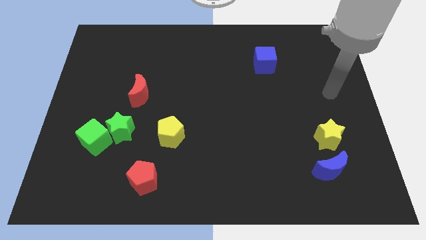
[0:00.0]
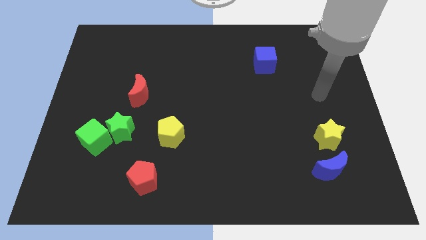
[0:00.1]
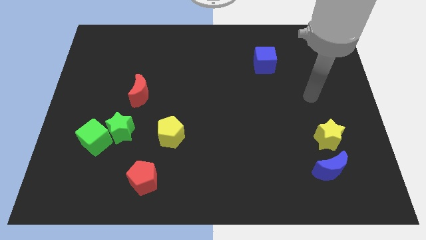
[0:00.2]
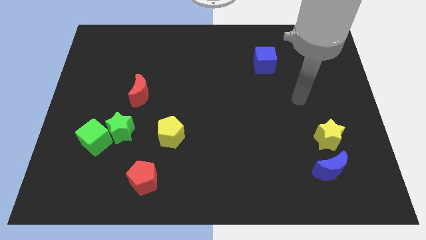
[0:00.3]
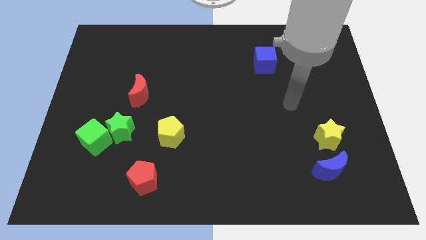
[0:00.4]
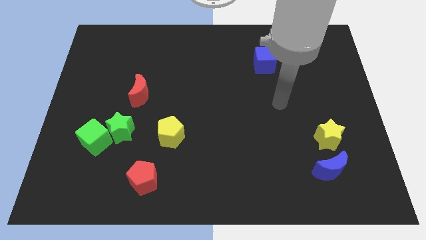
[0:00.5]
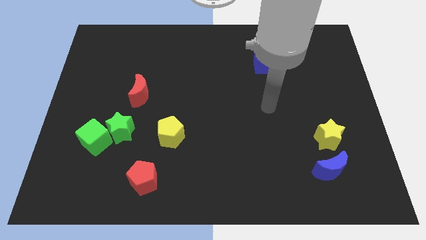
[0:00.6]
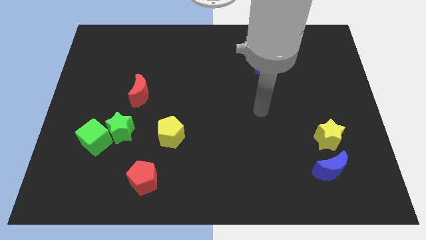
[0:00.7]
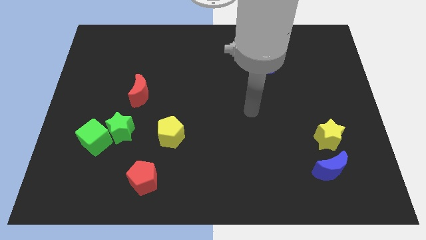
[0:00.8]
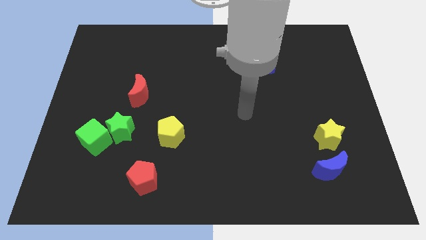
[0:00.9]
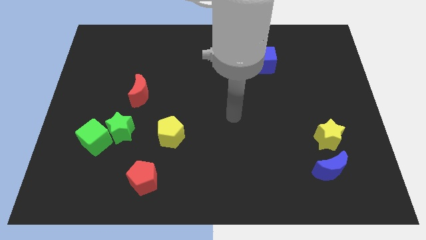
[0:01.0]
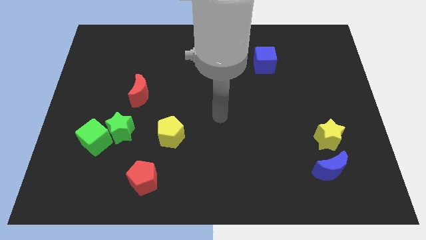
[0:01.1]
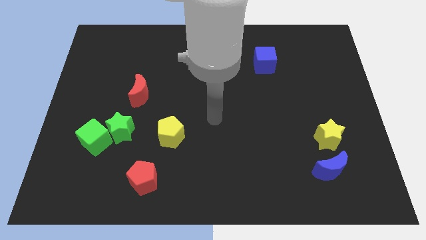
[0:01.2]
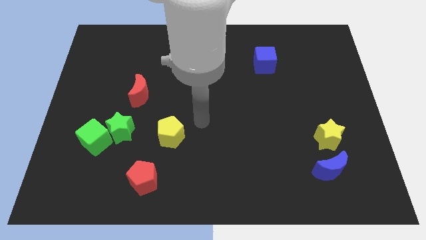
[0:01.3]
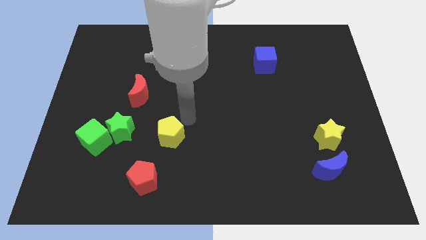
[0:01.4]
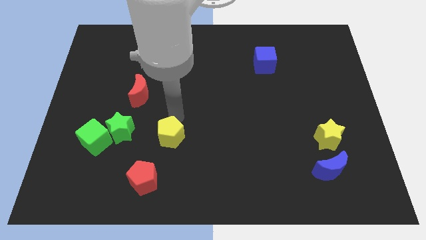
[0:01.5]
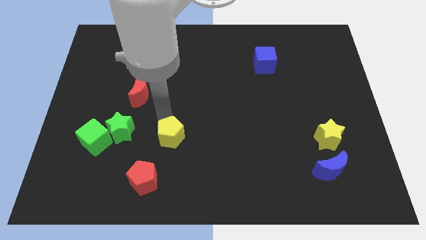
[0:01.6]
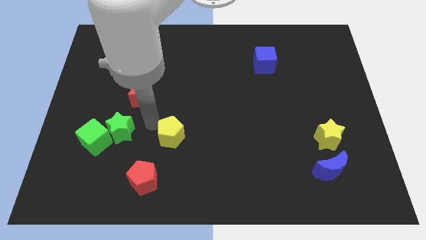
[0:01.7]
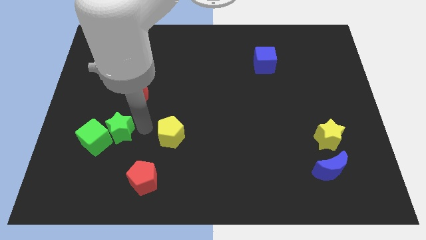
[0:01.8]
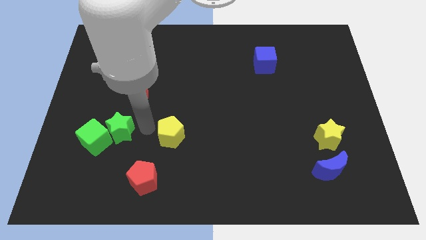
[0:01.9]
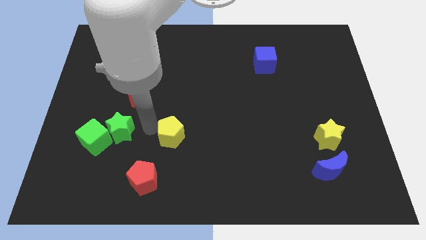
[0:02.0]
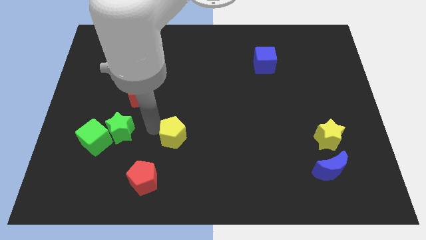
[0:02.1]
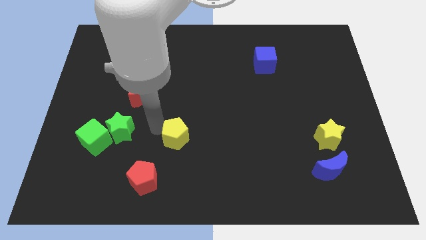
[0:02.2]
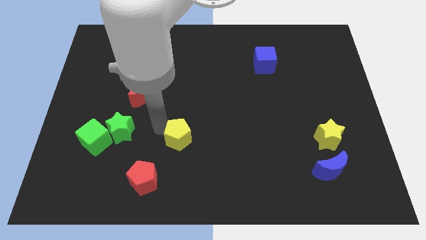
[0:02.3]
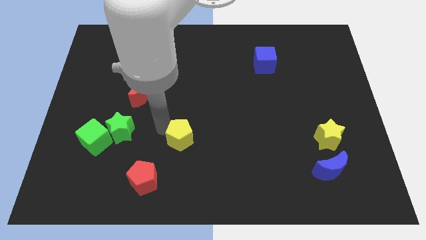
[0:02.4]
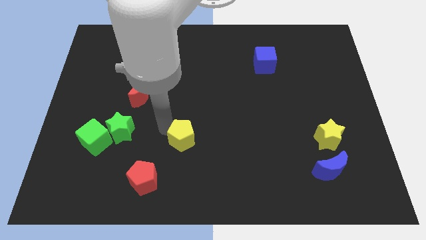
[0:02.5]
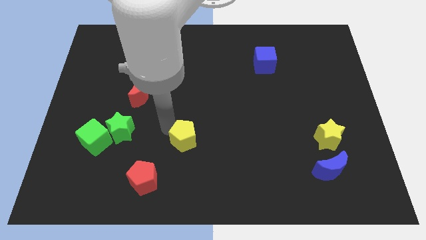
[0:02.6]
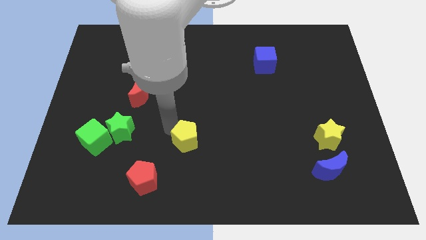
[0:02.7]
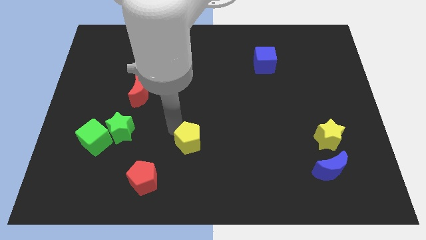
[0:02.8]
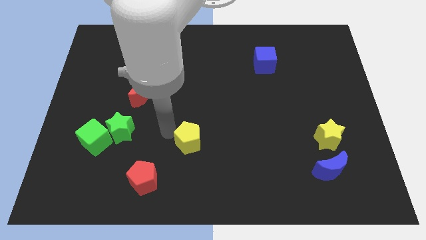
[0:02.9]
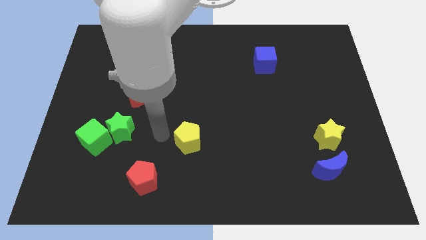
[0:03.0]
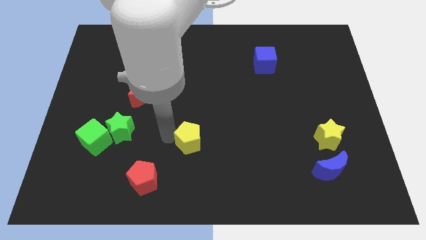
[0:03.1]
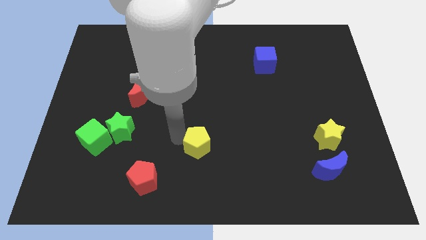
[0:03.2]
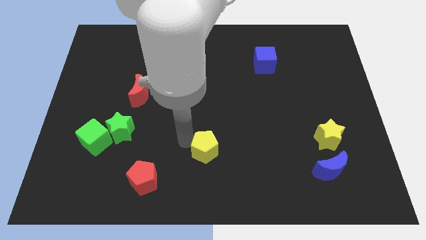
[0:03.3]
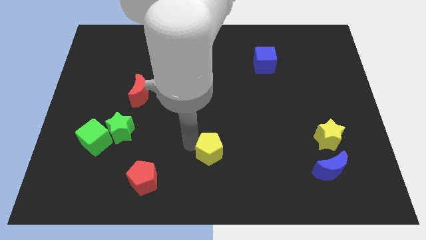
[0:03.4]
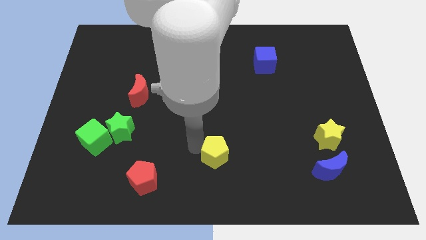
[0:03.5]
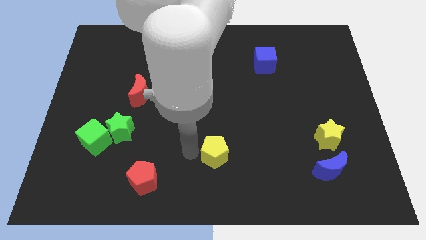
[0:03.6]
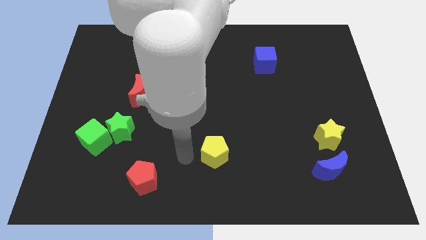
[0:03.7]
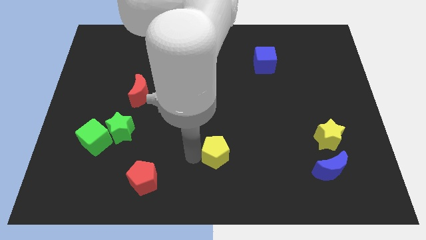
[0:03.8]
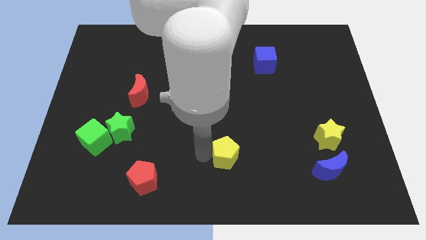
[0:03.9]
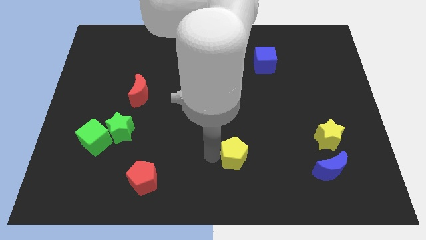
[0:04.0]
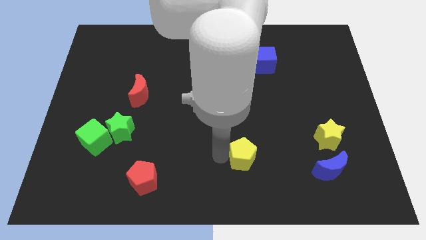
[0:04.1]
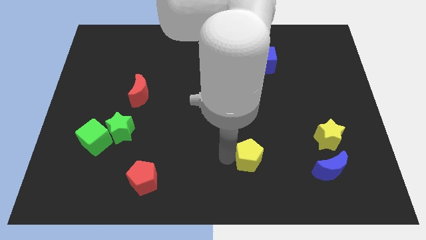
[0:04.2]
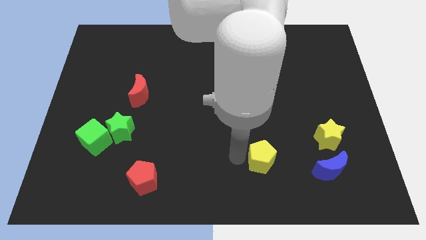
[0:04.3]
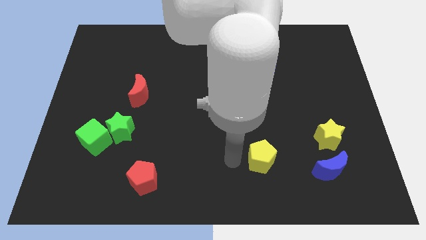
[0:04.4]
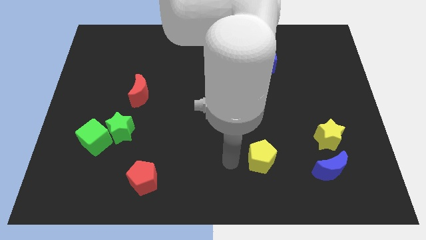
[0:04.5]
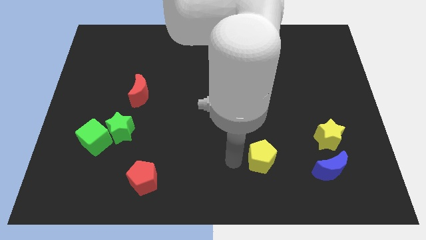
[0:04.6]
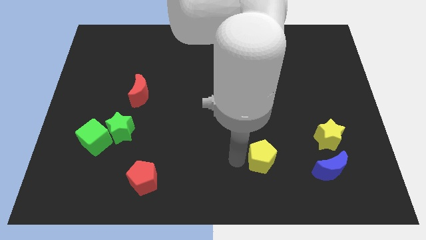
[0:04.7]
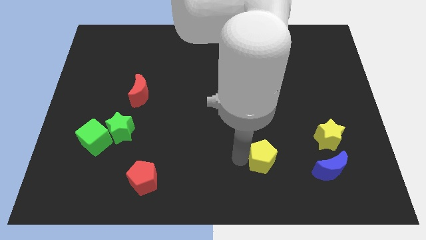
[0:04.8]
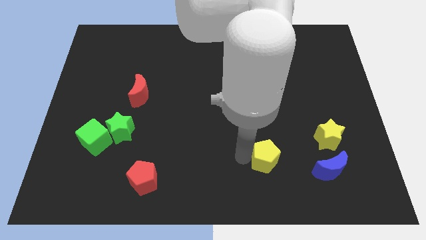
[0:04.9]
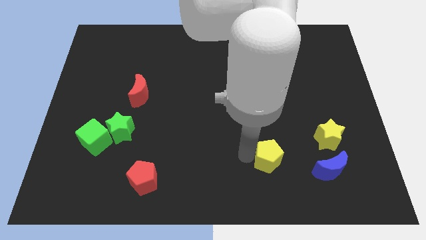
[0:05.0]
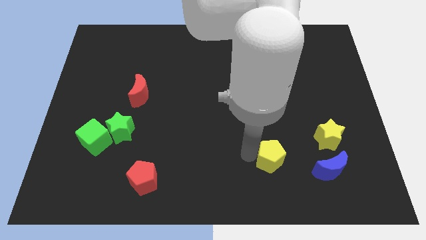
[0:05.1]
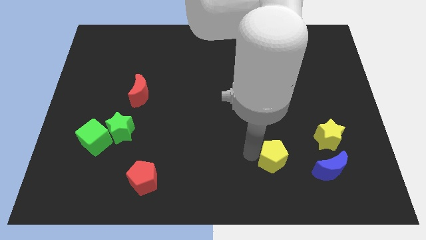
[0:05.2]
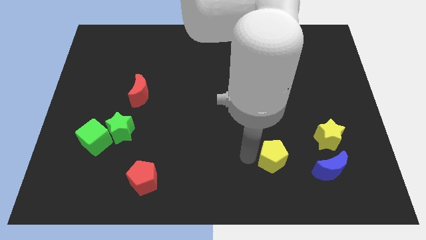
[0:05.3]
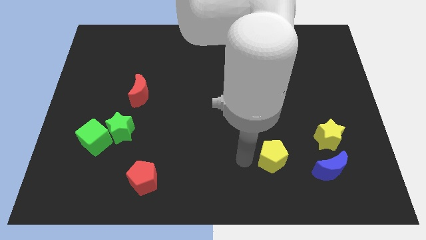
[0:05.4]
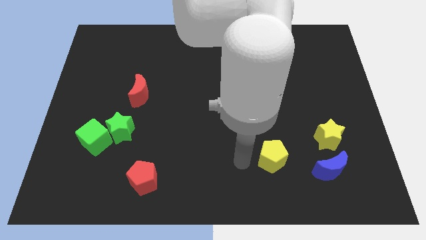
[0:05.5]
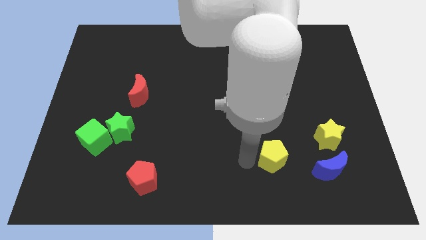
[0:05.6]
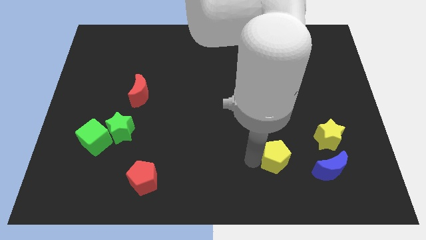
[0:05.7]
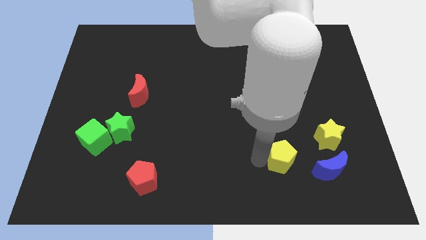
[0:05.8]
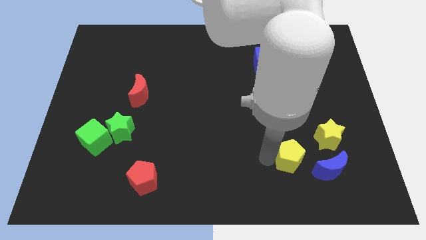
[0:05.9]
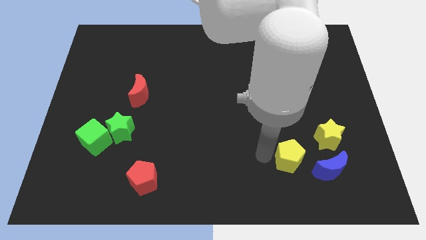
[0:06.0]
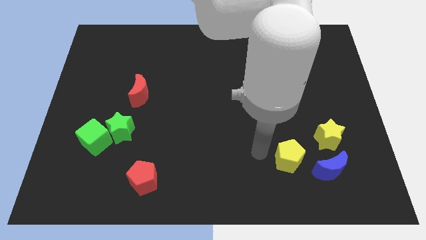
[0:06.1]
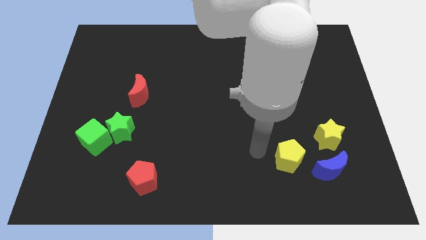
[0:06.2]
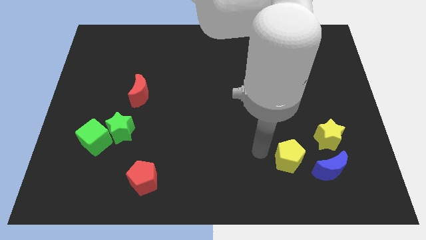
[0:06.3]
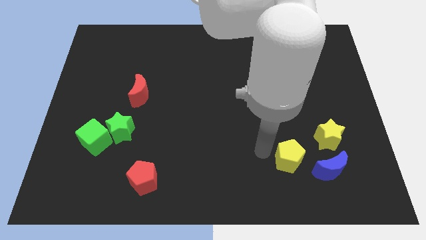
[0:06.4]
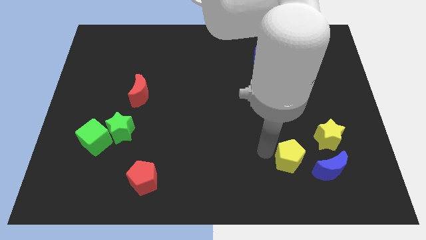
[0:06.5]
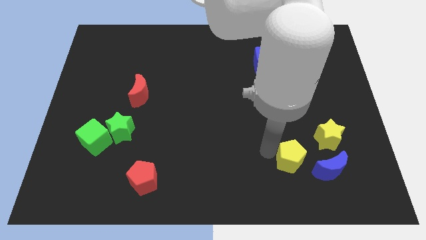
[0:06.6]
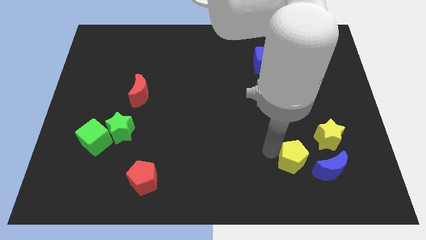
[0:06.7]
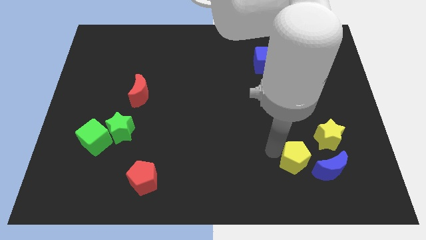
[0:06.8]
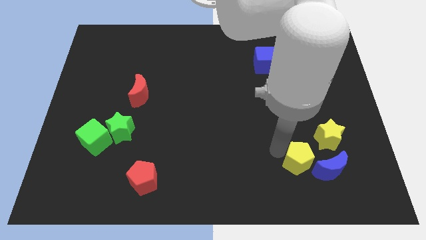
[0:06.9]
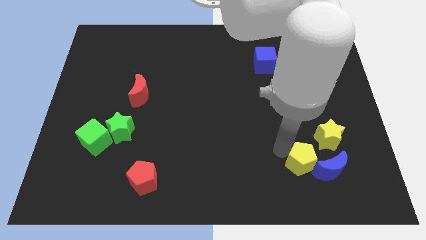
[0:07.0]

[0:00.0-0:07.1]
push the yellow pentagon next to the blue moon
